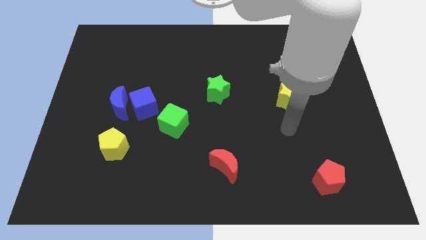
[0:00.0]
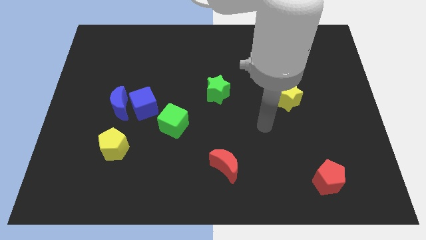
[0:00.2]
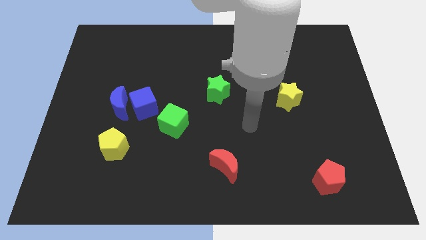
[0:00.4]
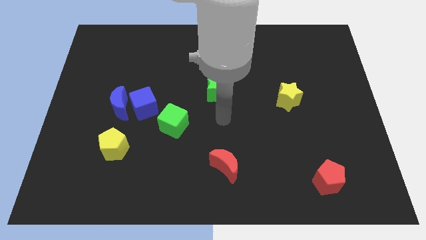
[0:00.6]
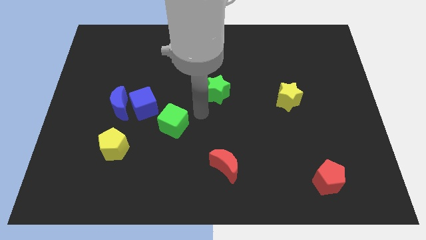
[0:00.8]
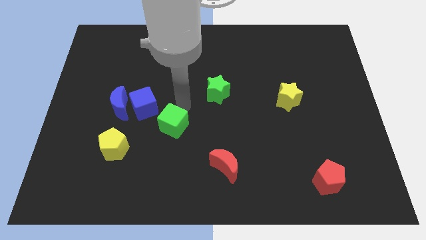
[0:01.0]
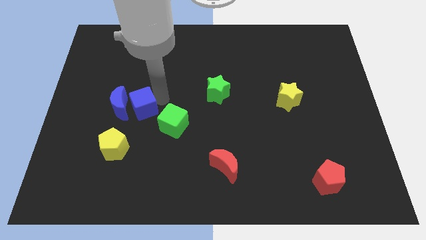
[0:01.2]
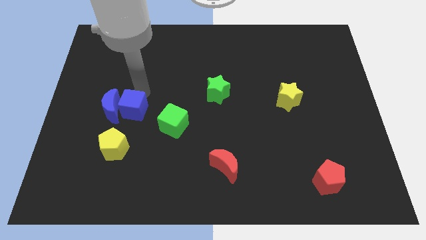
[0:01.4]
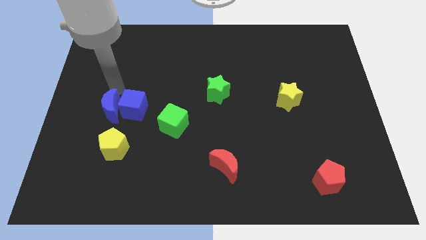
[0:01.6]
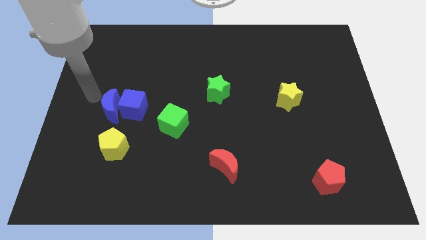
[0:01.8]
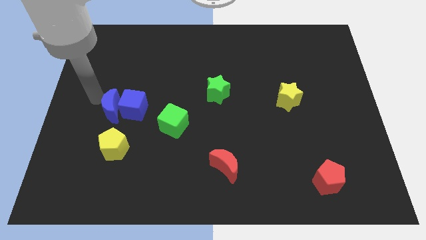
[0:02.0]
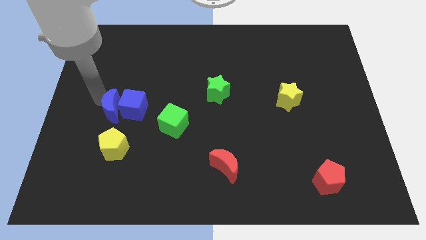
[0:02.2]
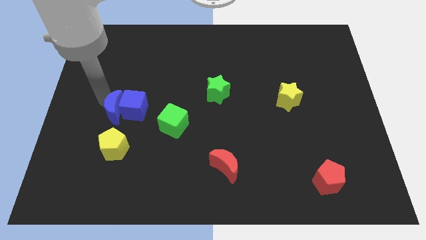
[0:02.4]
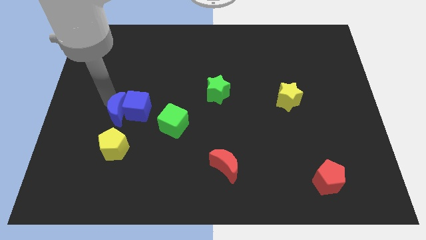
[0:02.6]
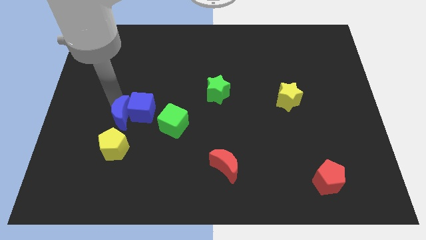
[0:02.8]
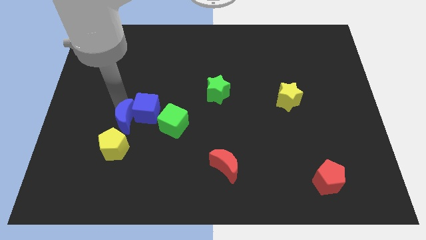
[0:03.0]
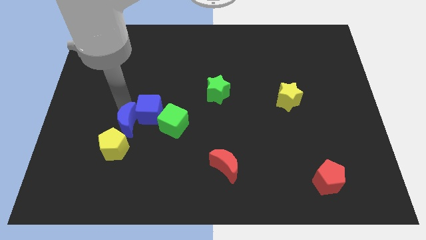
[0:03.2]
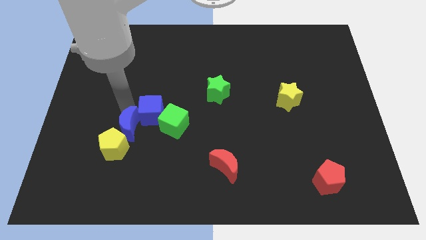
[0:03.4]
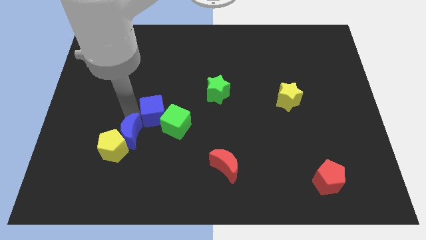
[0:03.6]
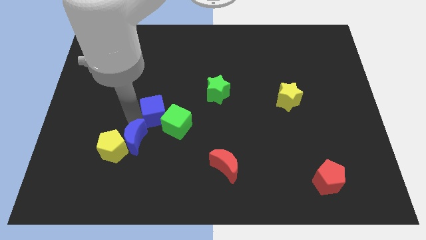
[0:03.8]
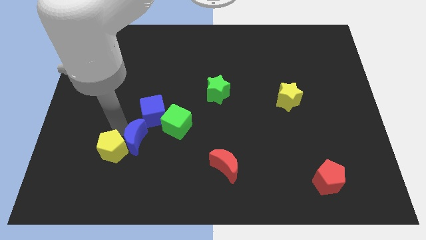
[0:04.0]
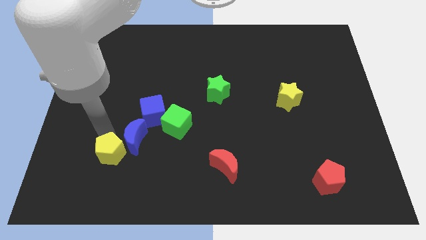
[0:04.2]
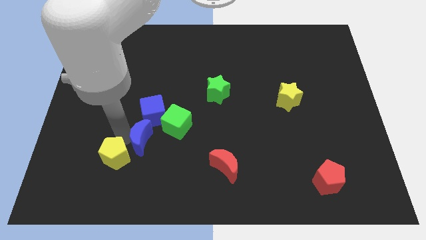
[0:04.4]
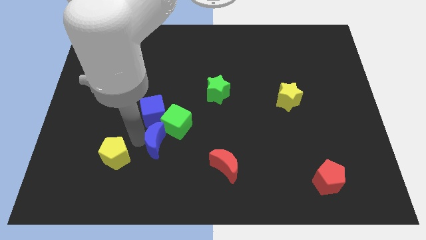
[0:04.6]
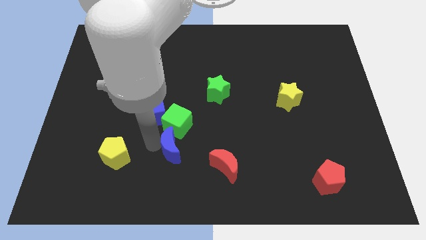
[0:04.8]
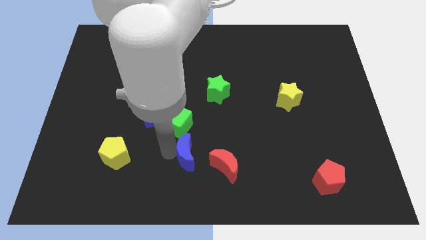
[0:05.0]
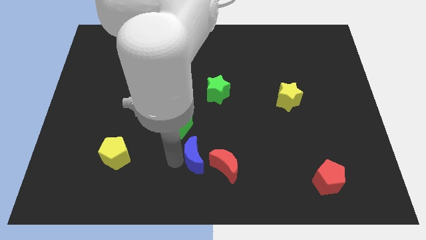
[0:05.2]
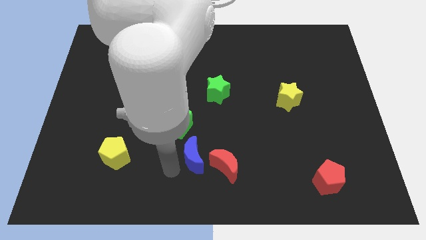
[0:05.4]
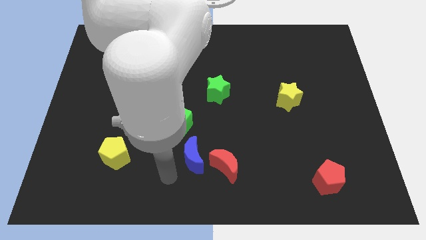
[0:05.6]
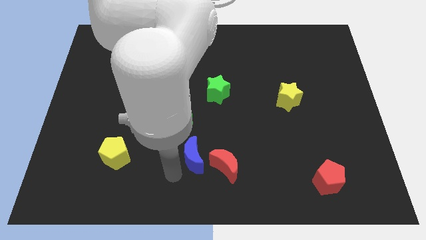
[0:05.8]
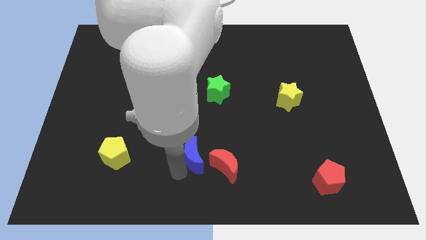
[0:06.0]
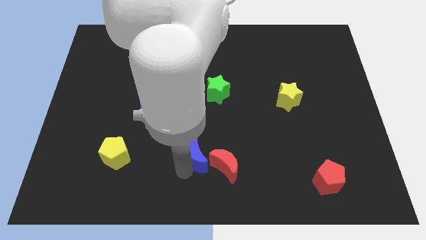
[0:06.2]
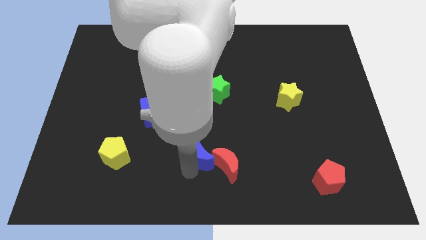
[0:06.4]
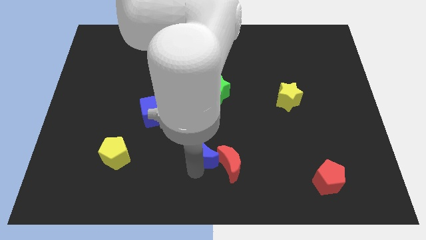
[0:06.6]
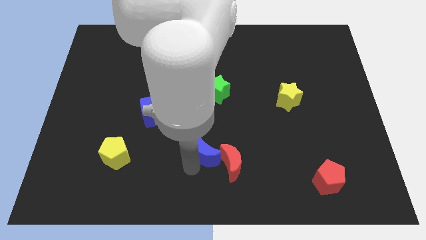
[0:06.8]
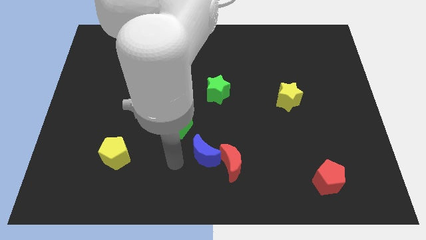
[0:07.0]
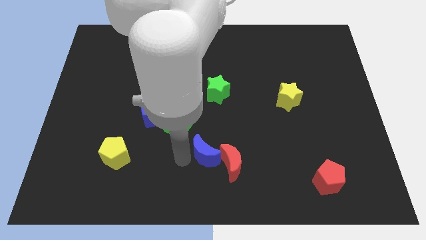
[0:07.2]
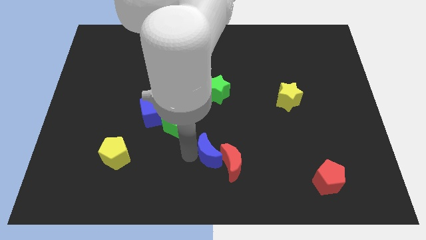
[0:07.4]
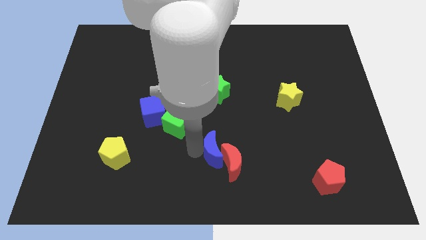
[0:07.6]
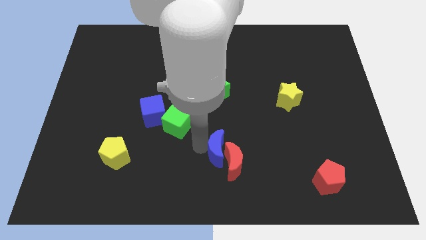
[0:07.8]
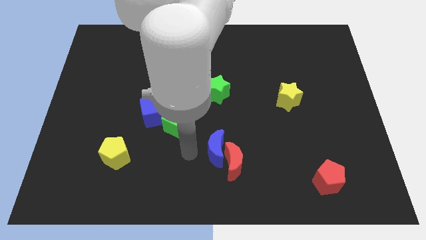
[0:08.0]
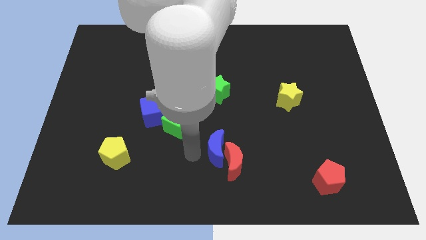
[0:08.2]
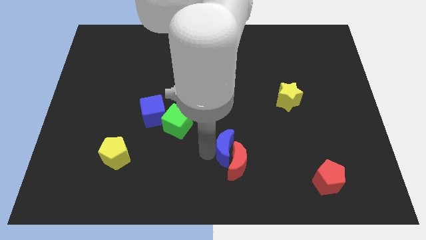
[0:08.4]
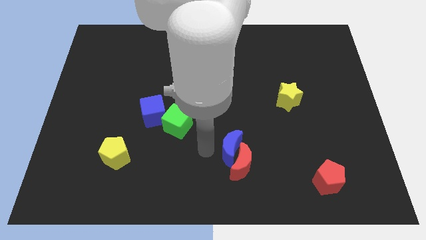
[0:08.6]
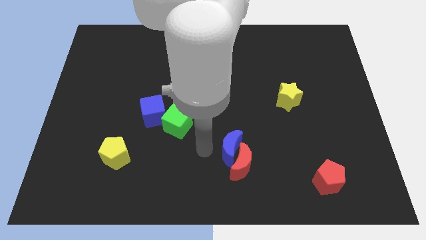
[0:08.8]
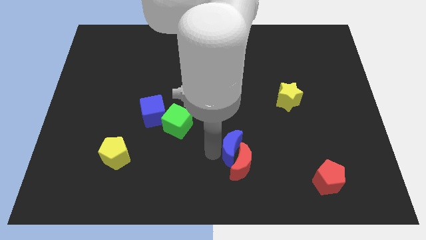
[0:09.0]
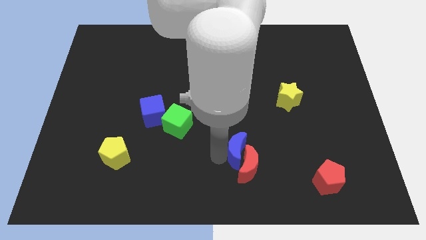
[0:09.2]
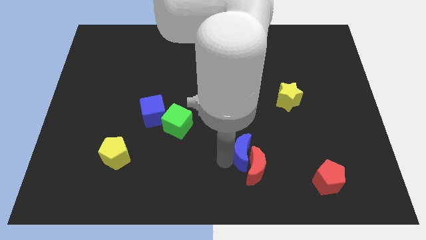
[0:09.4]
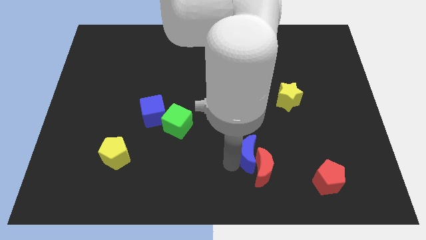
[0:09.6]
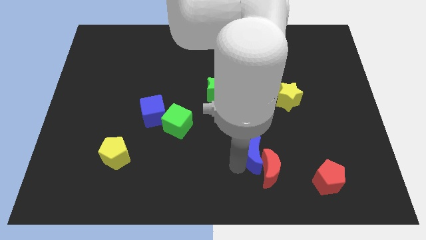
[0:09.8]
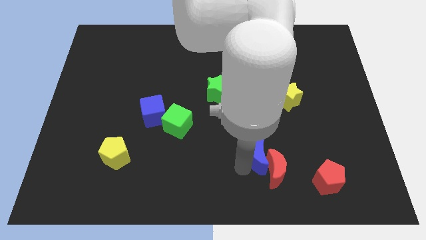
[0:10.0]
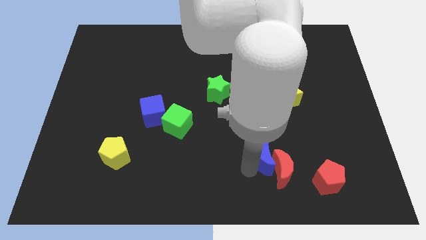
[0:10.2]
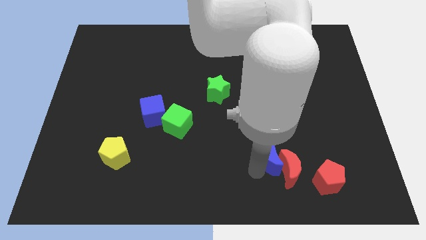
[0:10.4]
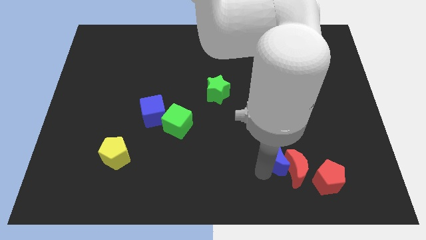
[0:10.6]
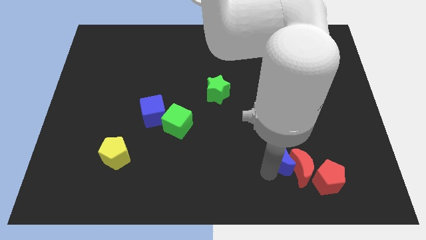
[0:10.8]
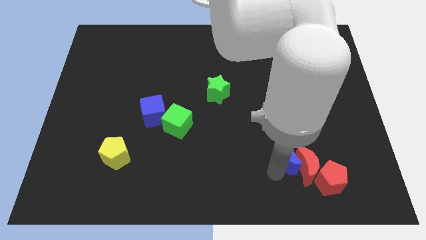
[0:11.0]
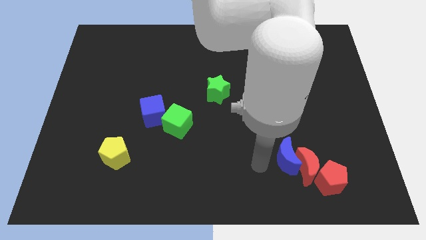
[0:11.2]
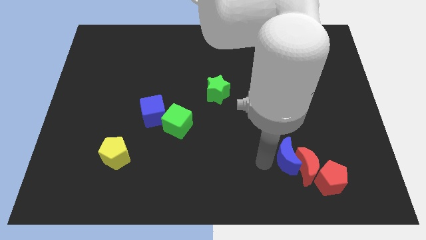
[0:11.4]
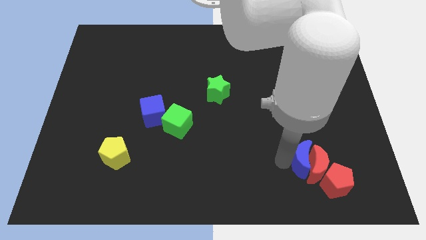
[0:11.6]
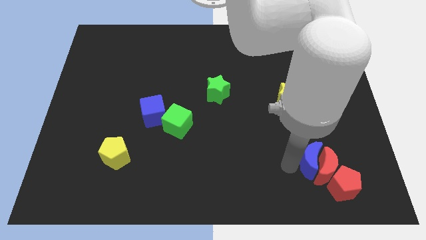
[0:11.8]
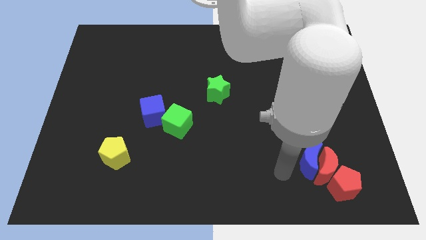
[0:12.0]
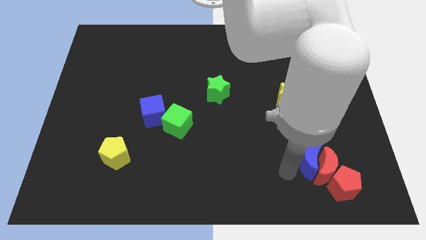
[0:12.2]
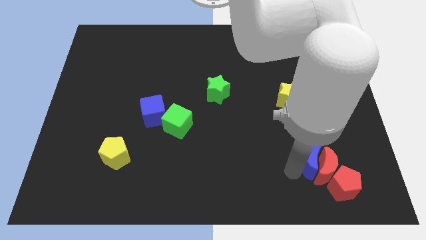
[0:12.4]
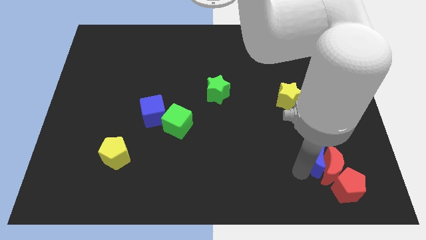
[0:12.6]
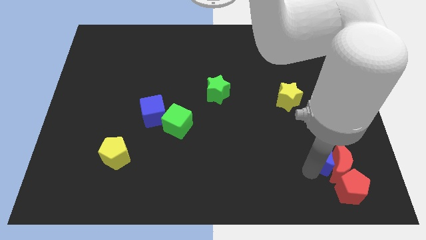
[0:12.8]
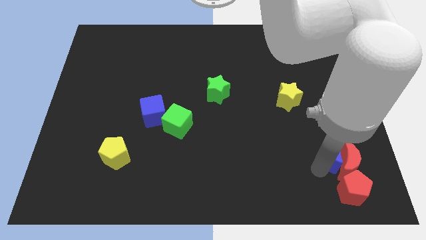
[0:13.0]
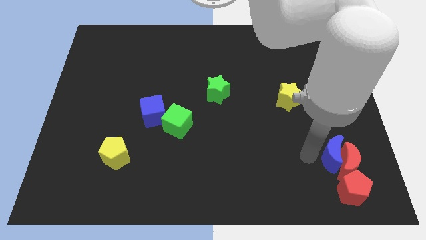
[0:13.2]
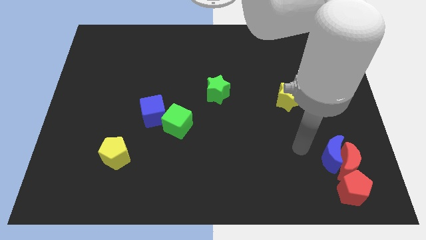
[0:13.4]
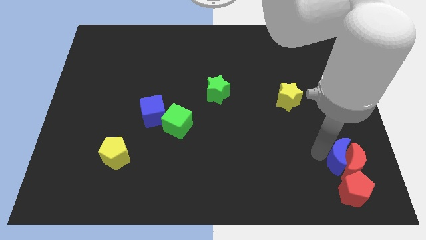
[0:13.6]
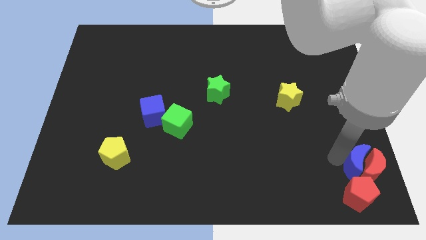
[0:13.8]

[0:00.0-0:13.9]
put the blue moon to the top right side of the red pentagon

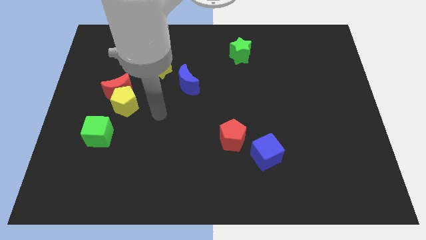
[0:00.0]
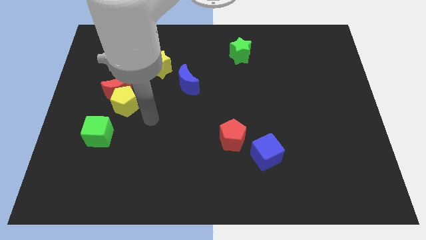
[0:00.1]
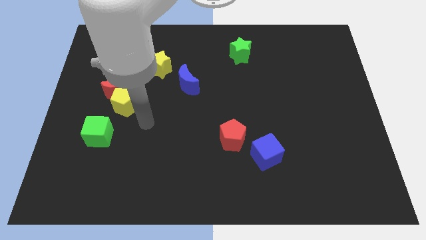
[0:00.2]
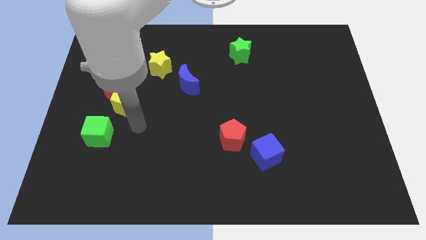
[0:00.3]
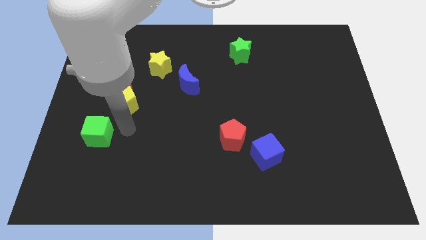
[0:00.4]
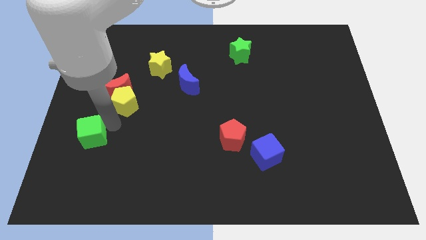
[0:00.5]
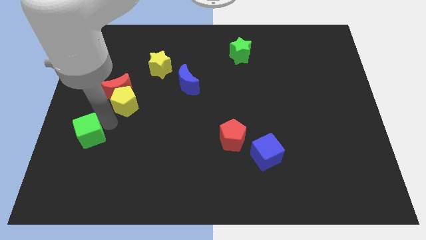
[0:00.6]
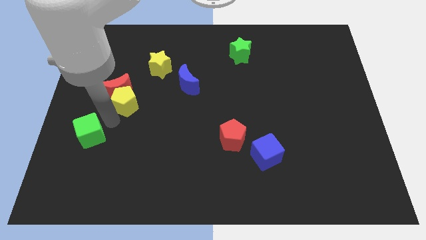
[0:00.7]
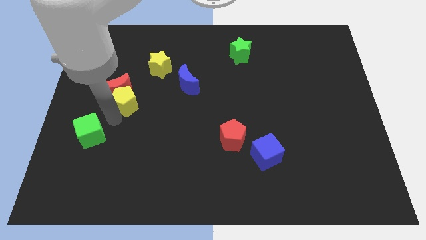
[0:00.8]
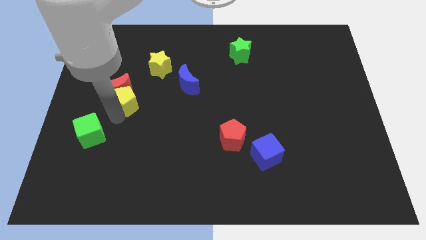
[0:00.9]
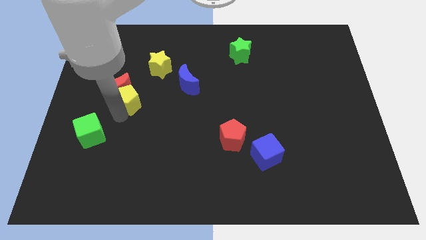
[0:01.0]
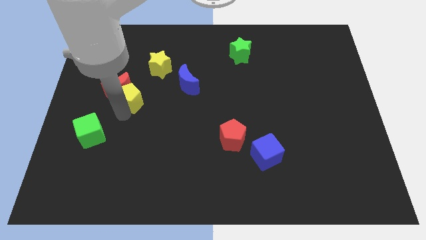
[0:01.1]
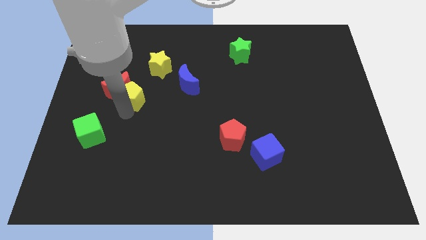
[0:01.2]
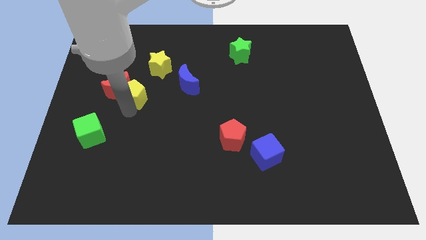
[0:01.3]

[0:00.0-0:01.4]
push the yellow pentagon just left of the blue moon
